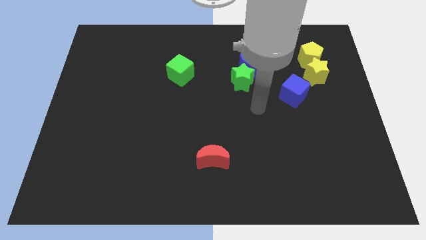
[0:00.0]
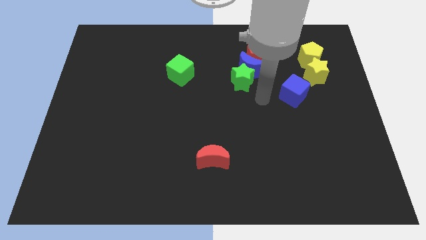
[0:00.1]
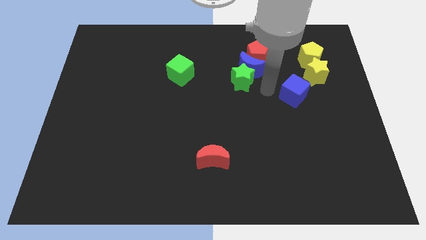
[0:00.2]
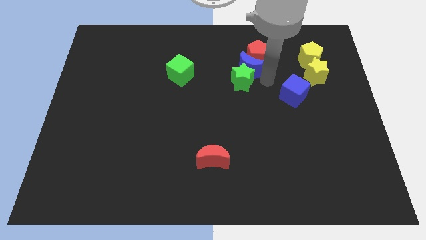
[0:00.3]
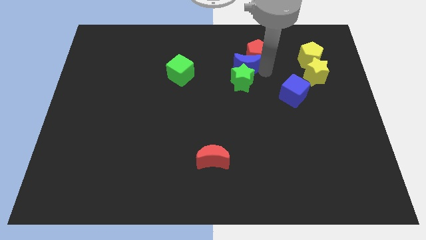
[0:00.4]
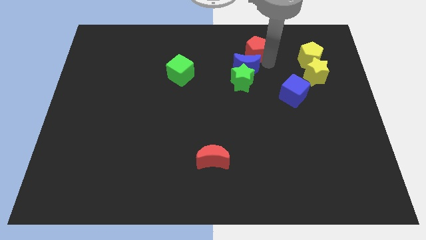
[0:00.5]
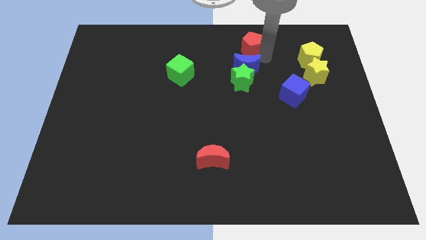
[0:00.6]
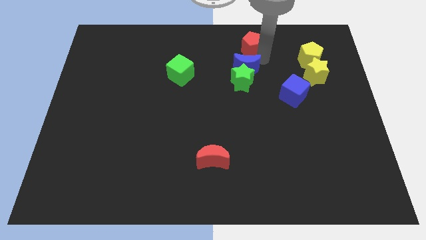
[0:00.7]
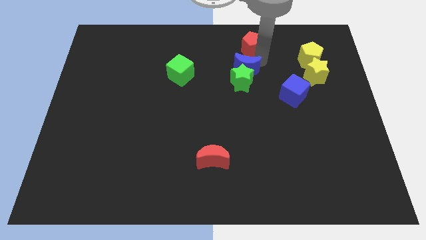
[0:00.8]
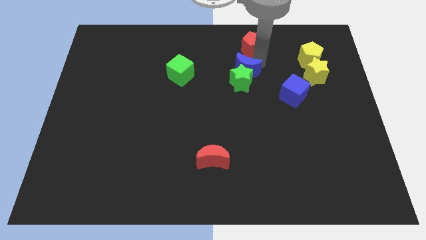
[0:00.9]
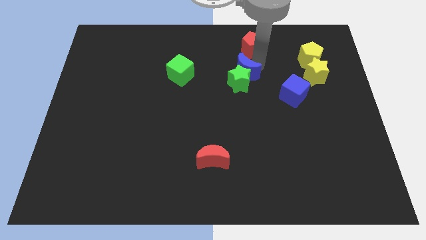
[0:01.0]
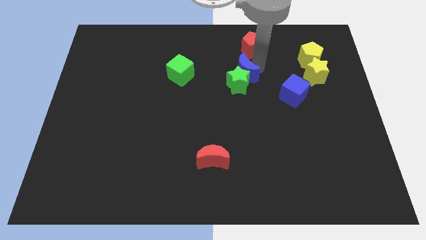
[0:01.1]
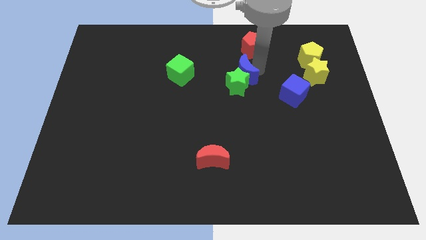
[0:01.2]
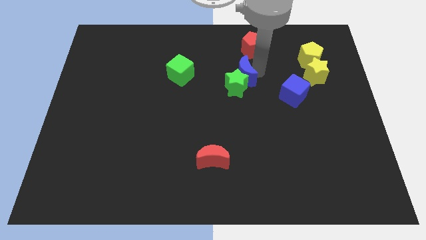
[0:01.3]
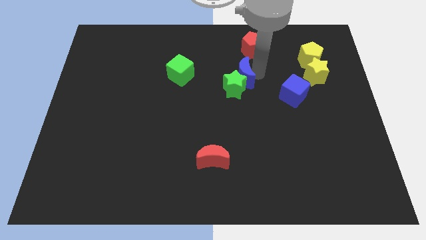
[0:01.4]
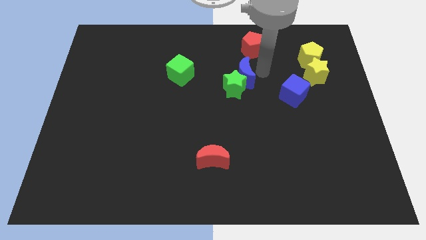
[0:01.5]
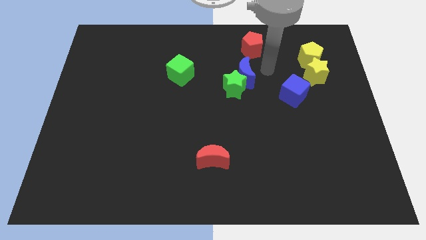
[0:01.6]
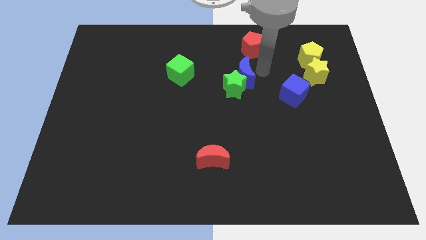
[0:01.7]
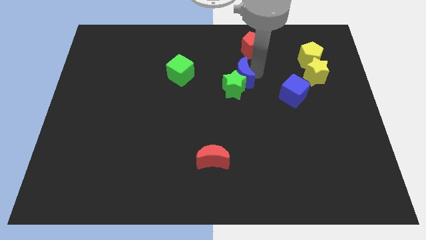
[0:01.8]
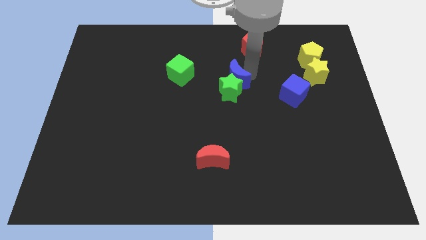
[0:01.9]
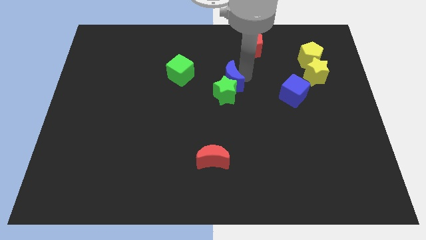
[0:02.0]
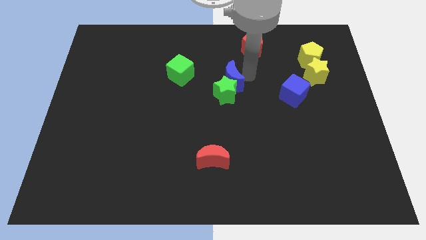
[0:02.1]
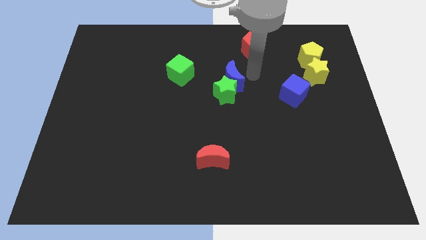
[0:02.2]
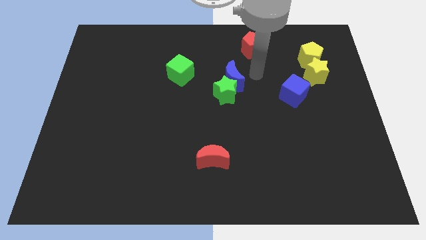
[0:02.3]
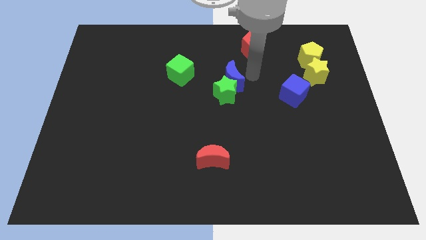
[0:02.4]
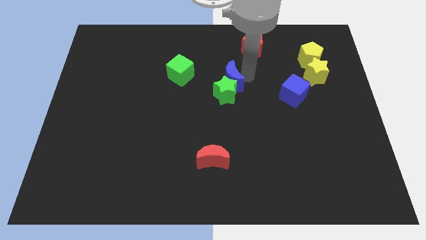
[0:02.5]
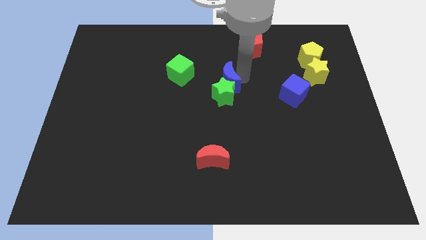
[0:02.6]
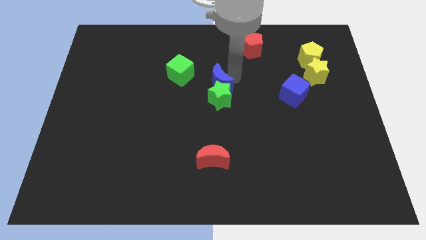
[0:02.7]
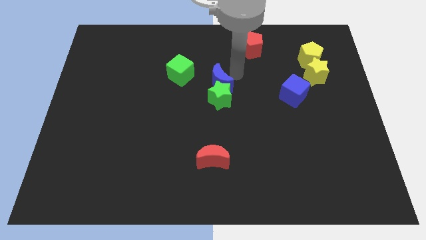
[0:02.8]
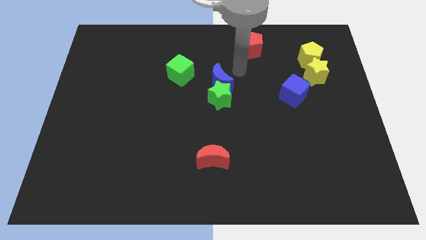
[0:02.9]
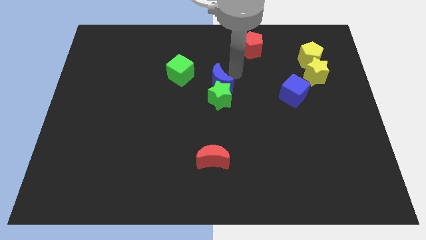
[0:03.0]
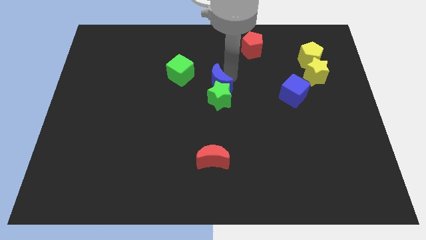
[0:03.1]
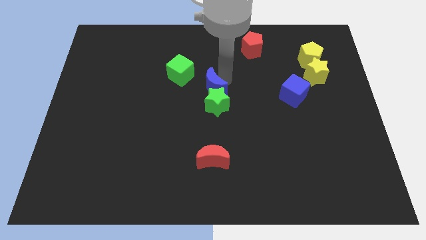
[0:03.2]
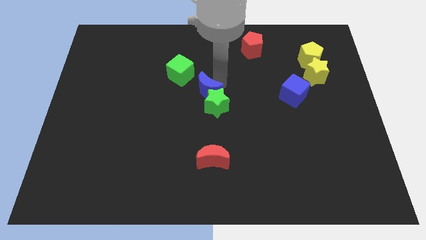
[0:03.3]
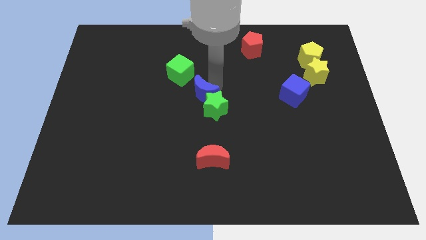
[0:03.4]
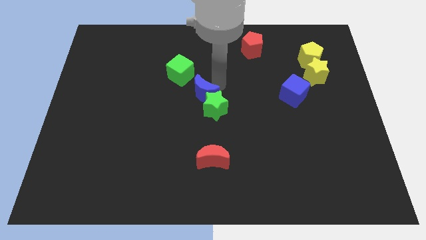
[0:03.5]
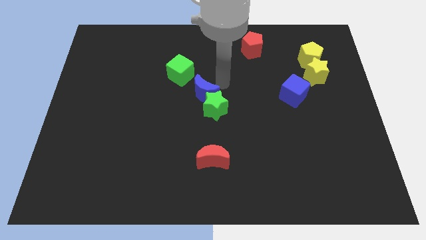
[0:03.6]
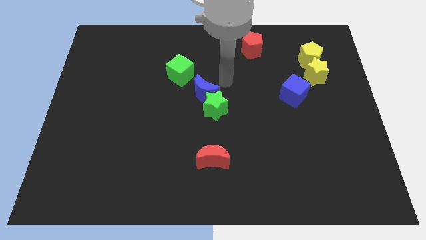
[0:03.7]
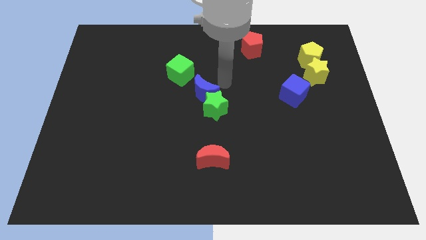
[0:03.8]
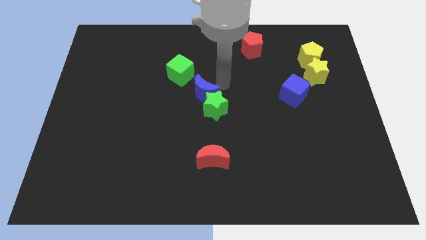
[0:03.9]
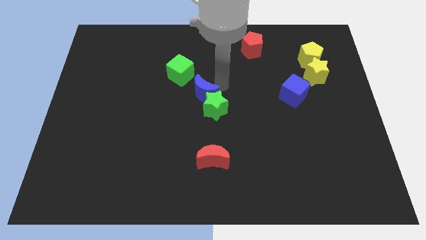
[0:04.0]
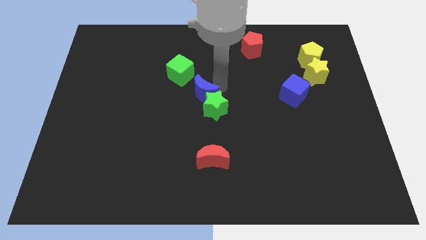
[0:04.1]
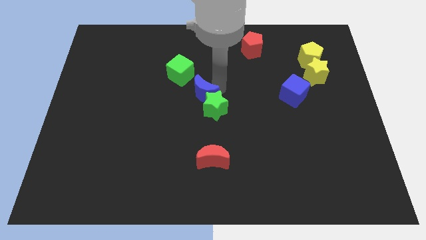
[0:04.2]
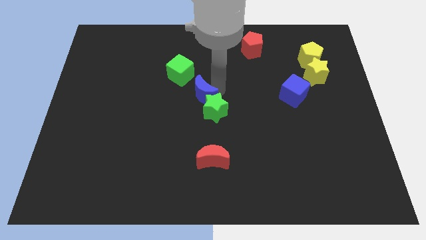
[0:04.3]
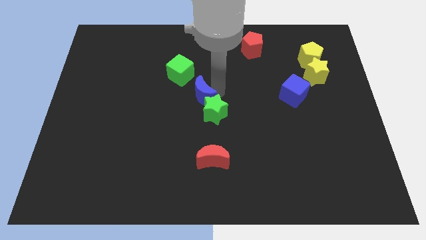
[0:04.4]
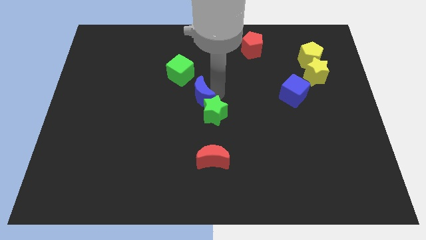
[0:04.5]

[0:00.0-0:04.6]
separate the blue moon from the green star and red pentagon

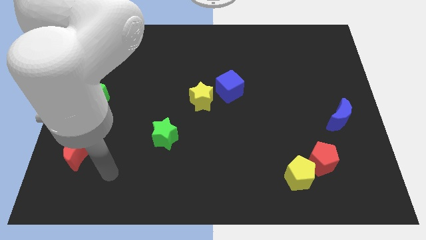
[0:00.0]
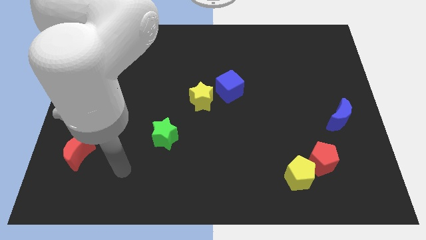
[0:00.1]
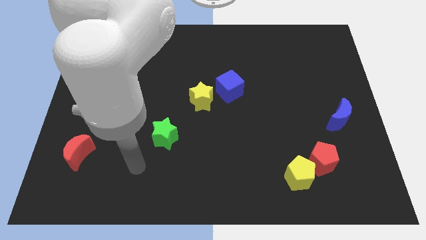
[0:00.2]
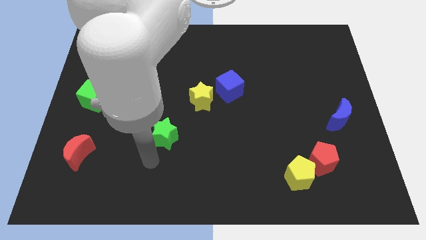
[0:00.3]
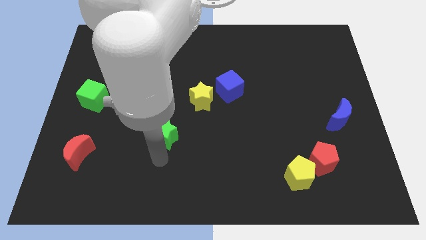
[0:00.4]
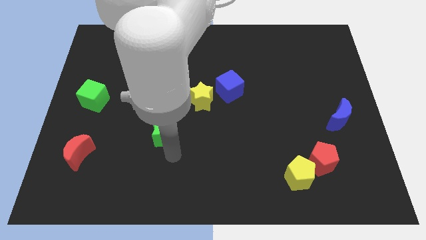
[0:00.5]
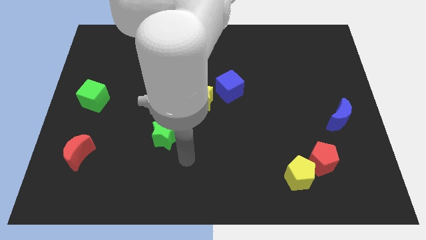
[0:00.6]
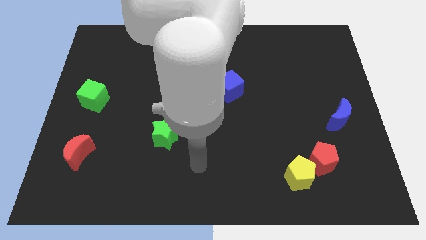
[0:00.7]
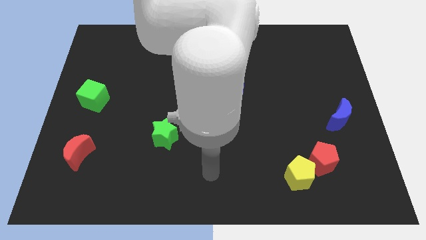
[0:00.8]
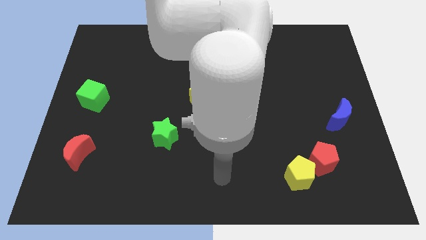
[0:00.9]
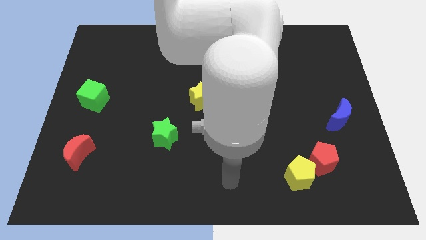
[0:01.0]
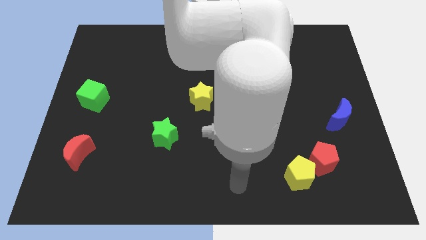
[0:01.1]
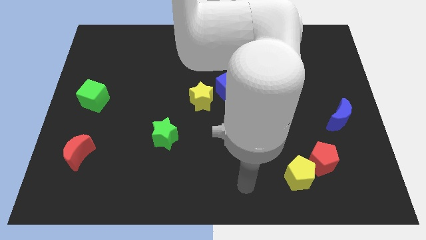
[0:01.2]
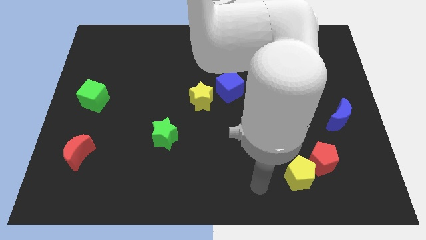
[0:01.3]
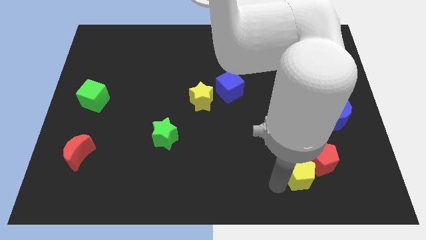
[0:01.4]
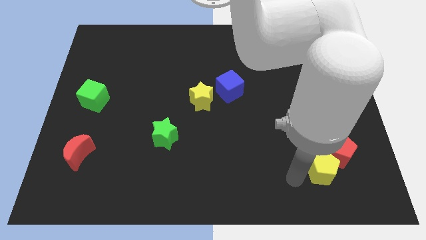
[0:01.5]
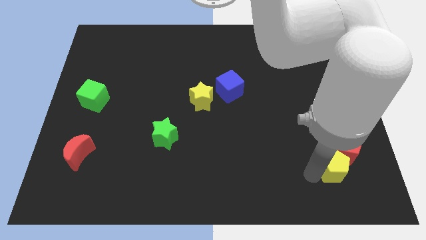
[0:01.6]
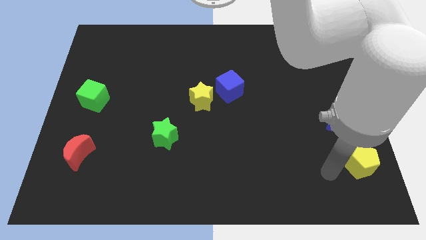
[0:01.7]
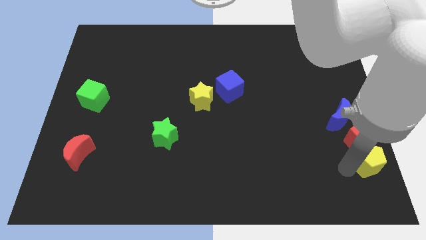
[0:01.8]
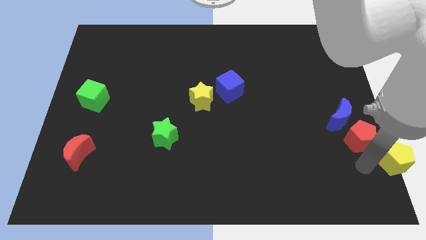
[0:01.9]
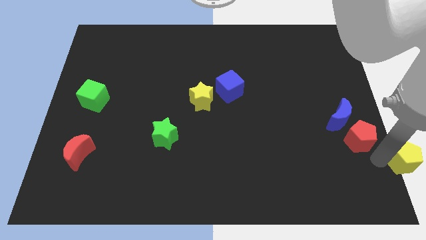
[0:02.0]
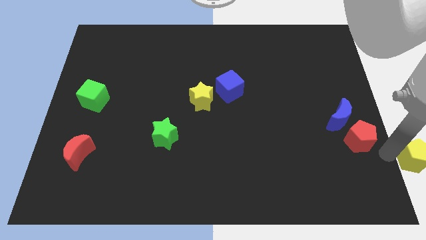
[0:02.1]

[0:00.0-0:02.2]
separate the red pentagon from the yellow pentagon

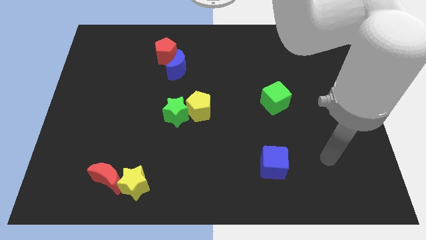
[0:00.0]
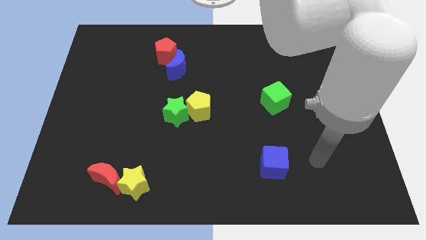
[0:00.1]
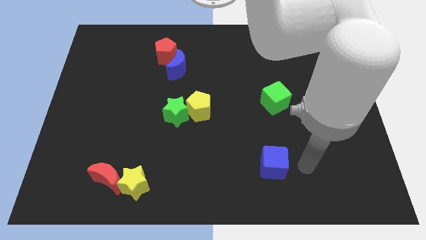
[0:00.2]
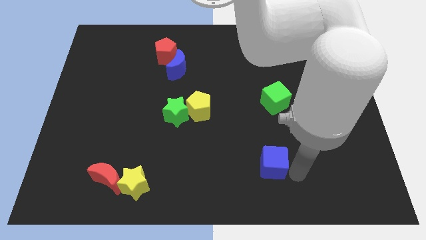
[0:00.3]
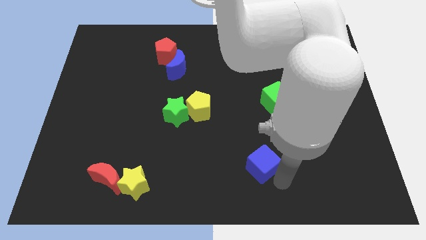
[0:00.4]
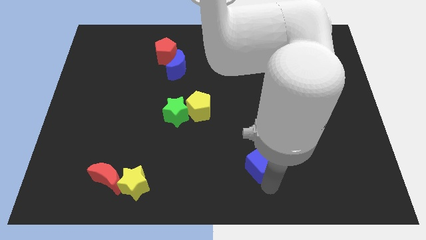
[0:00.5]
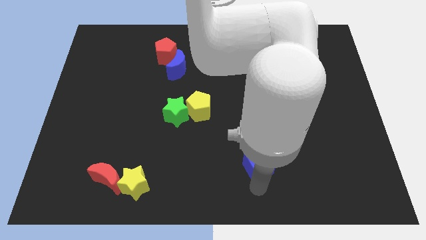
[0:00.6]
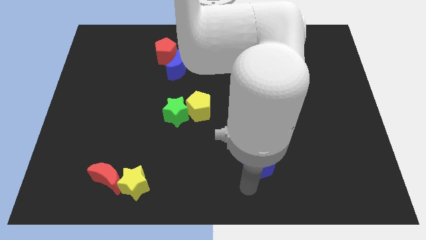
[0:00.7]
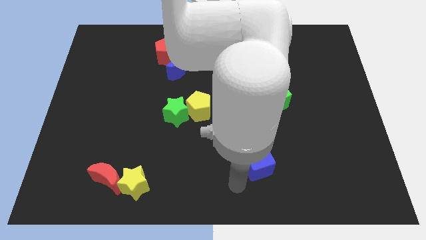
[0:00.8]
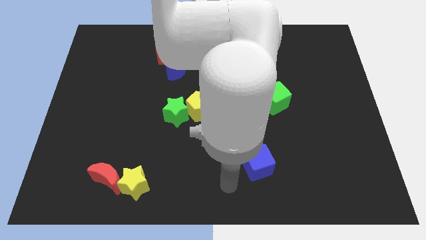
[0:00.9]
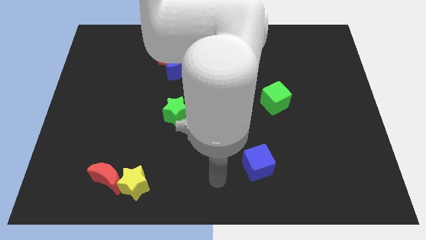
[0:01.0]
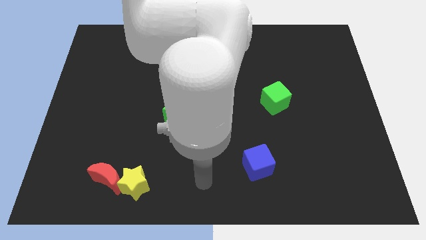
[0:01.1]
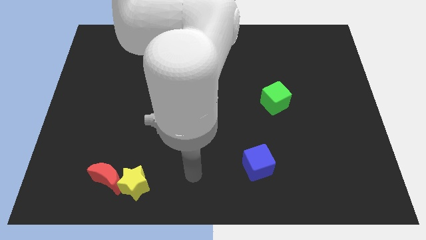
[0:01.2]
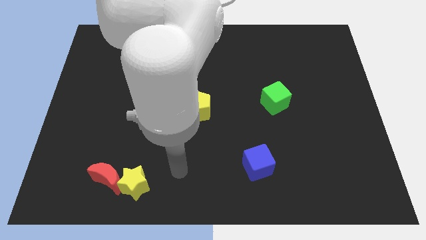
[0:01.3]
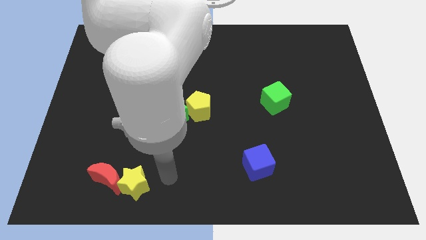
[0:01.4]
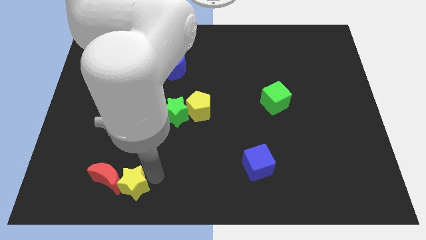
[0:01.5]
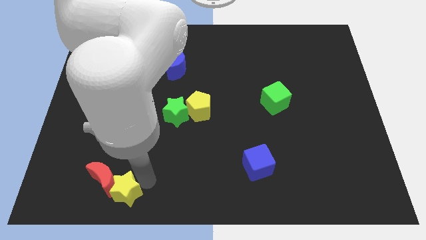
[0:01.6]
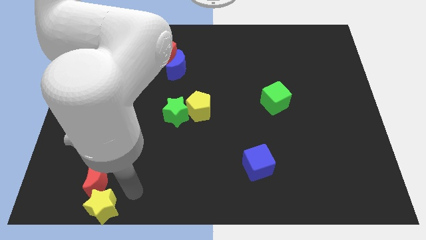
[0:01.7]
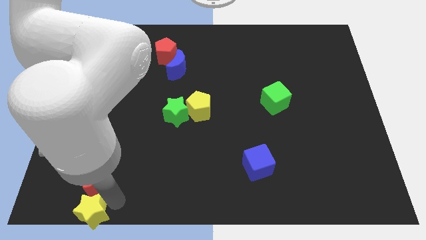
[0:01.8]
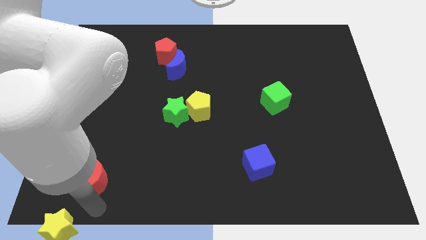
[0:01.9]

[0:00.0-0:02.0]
separate the red moon from the yellow star

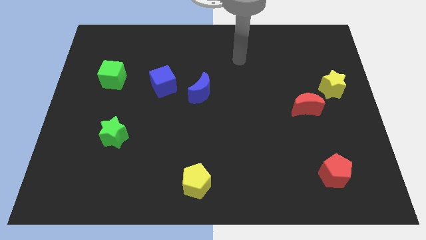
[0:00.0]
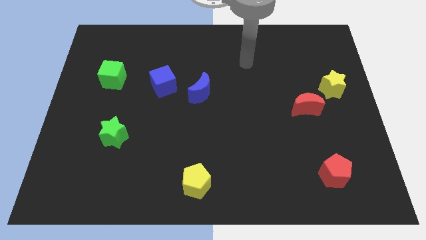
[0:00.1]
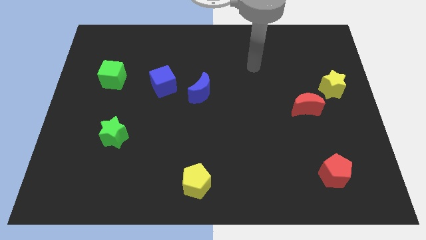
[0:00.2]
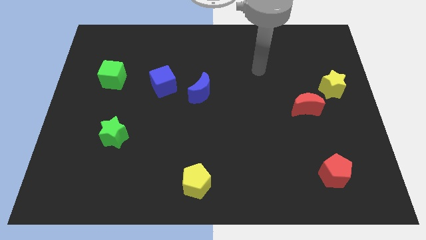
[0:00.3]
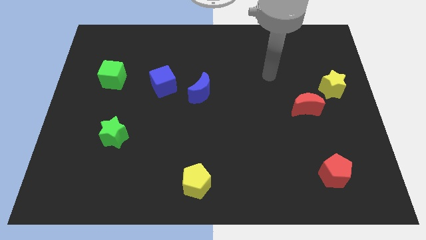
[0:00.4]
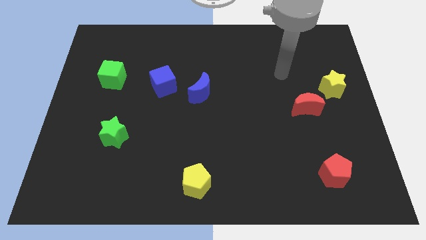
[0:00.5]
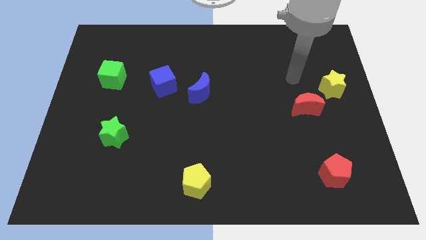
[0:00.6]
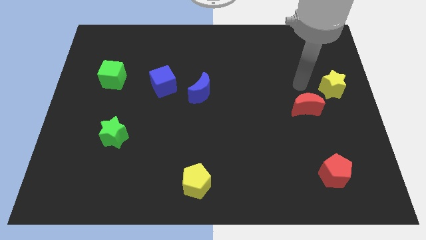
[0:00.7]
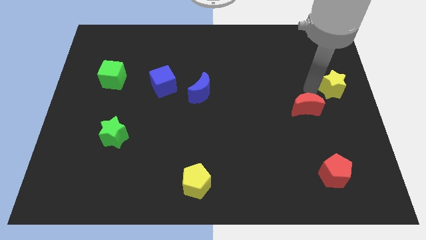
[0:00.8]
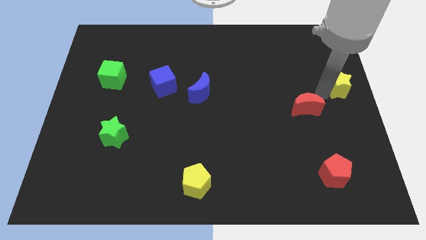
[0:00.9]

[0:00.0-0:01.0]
move the red moon away from the yellow star
